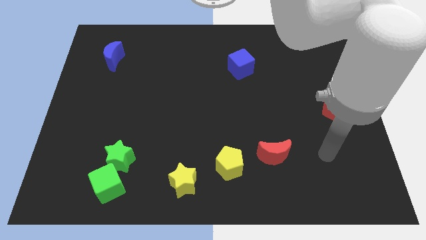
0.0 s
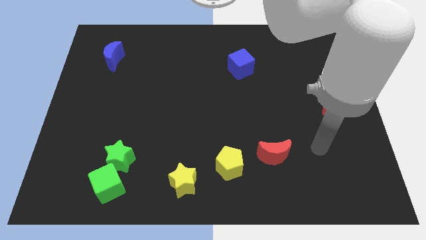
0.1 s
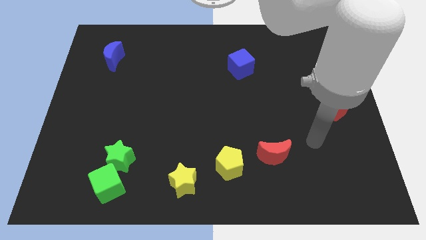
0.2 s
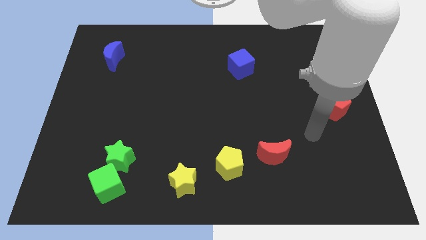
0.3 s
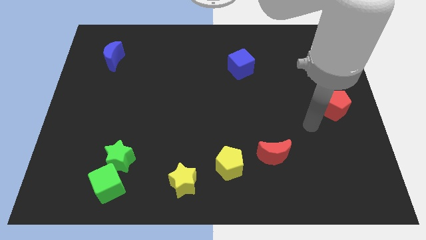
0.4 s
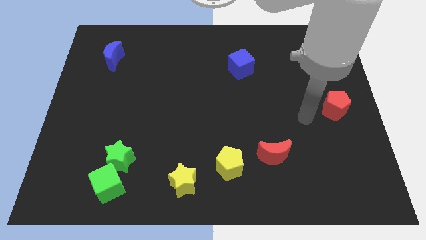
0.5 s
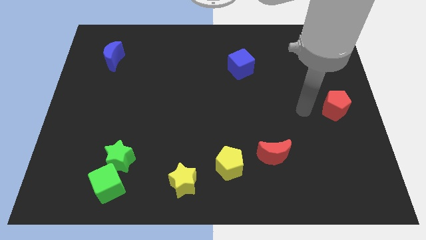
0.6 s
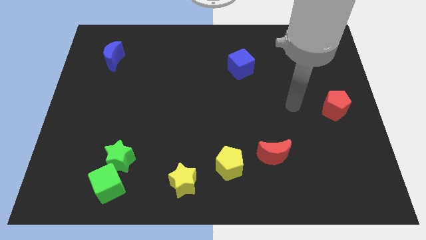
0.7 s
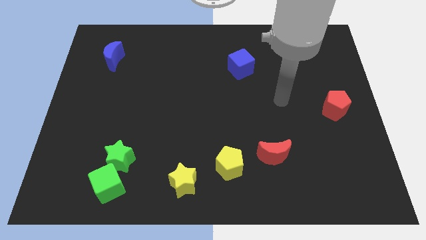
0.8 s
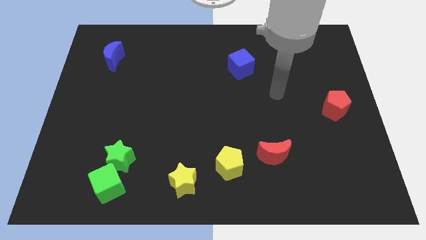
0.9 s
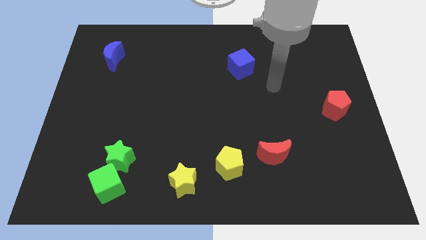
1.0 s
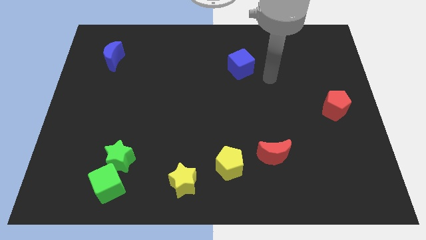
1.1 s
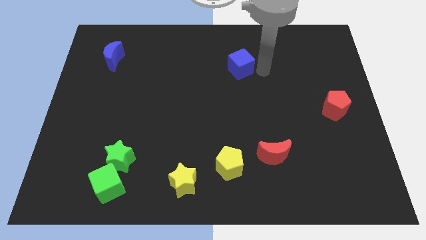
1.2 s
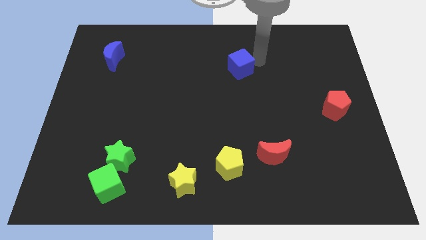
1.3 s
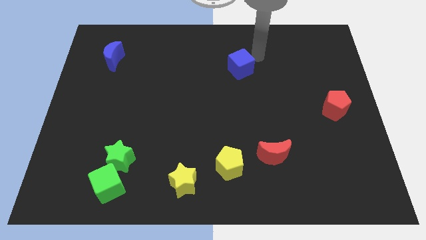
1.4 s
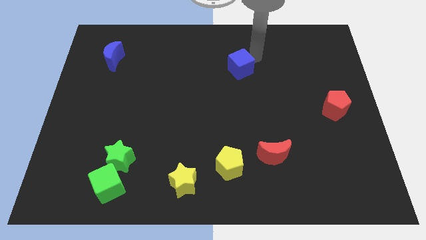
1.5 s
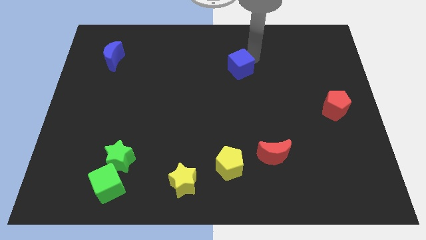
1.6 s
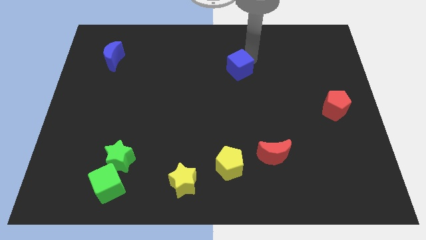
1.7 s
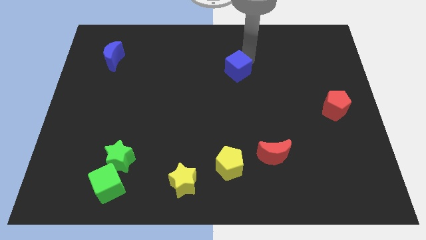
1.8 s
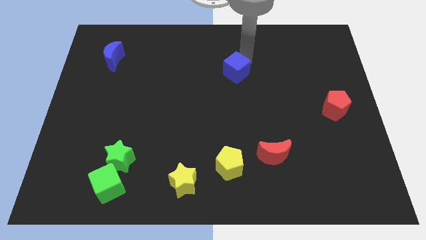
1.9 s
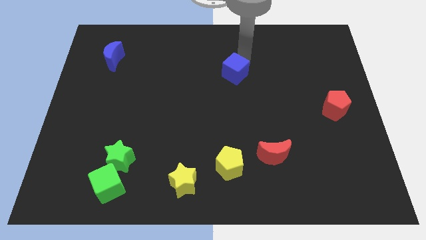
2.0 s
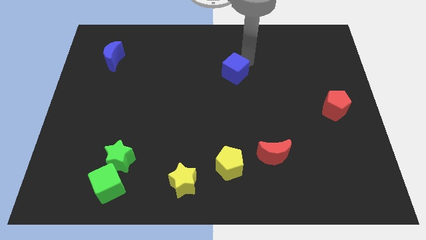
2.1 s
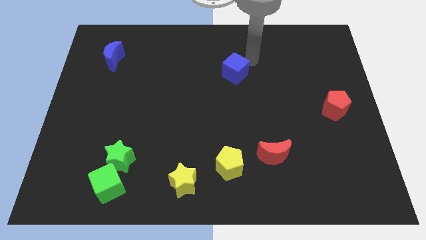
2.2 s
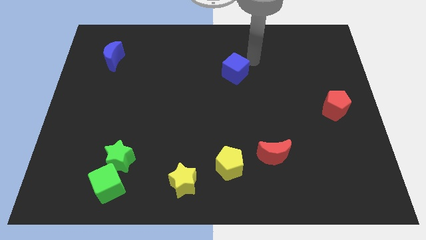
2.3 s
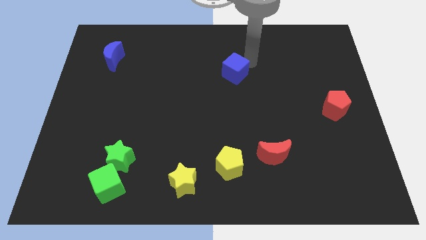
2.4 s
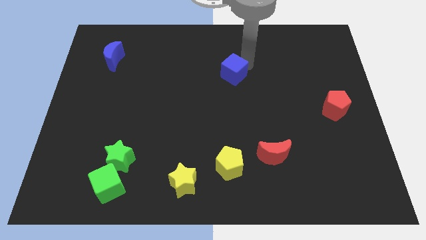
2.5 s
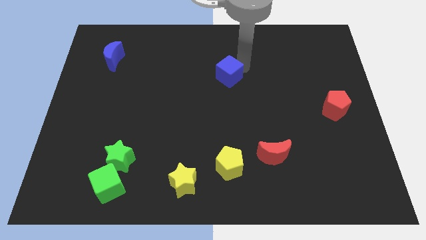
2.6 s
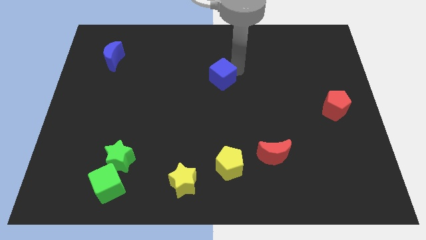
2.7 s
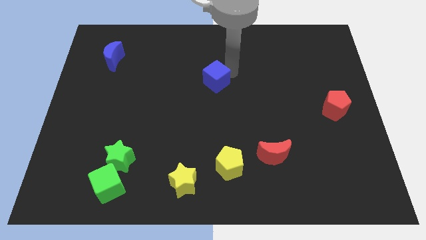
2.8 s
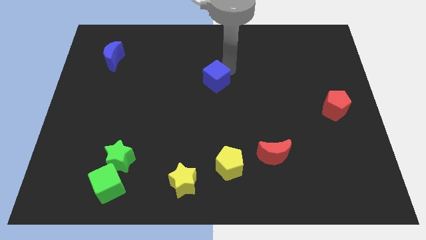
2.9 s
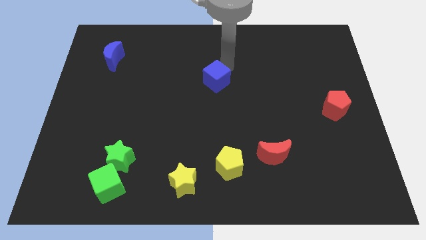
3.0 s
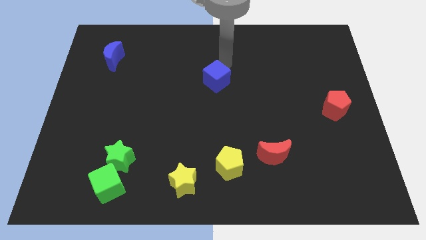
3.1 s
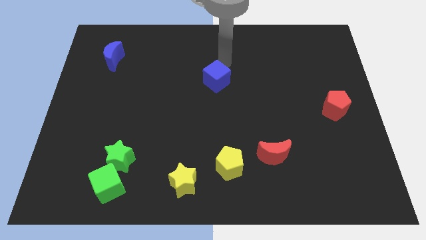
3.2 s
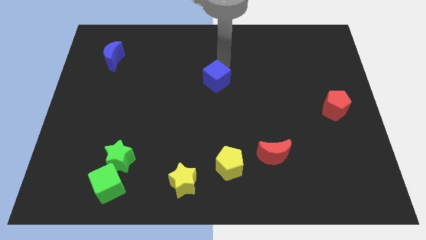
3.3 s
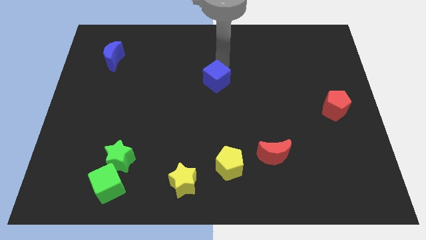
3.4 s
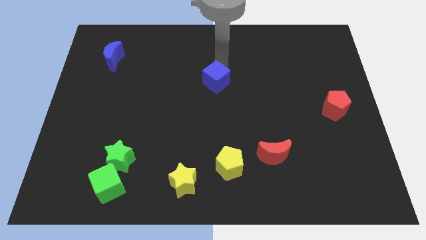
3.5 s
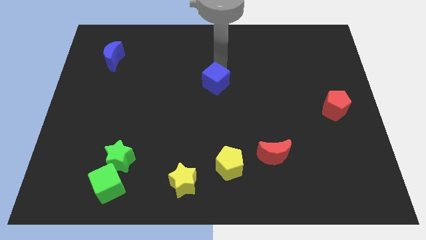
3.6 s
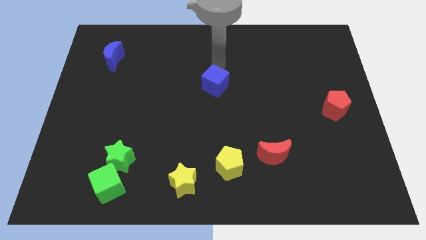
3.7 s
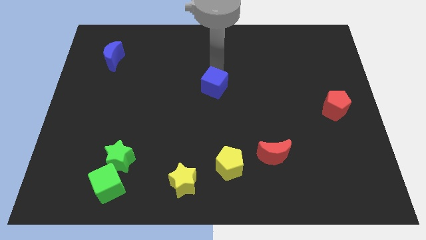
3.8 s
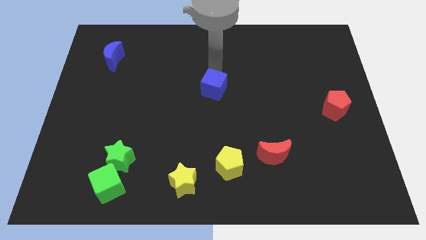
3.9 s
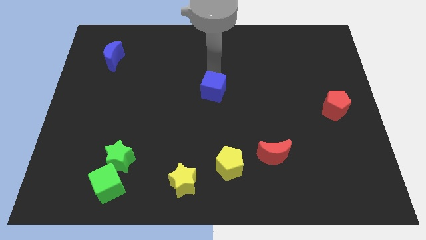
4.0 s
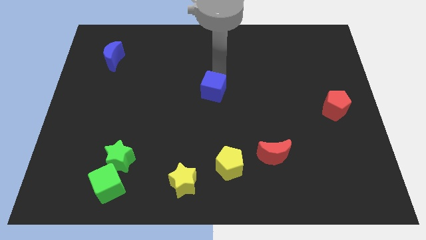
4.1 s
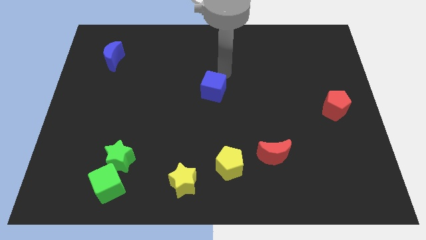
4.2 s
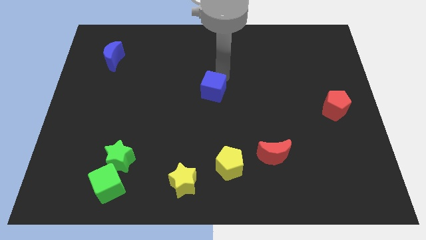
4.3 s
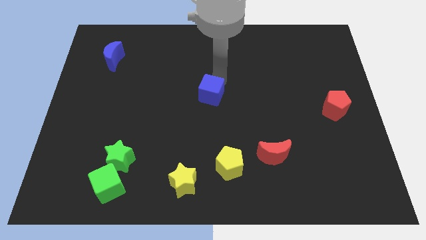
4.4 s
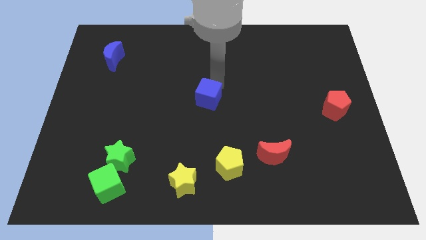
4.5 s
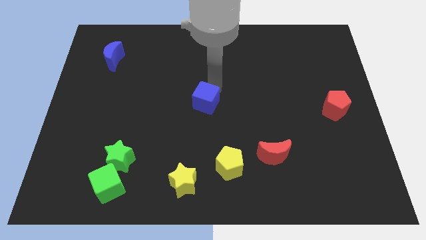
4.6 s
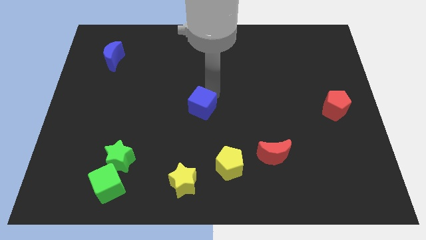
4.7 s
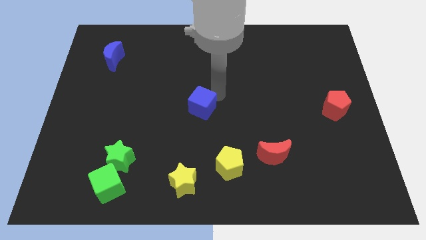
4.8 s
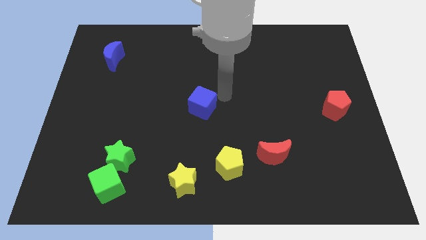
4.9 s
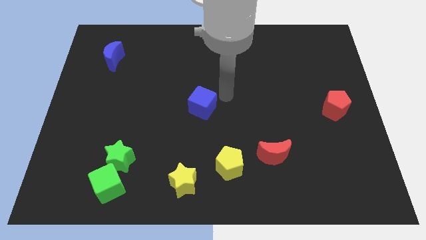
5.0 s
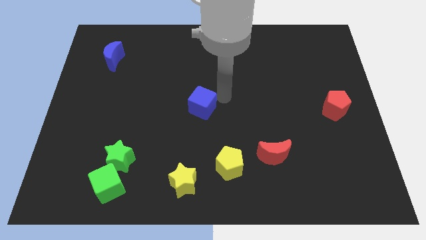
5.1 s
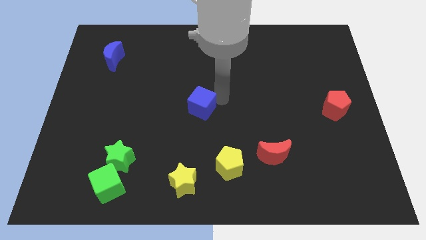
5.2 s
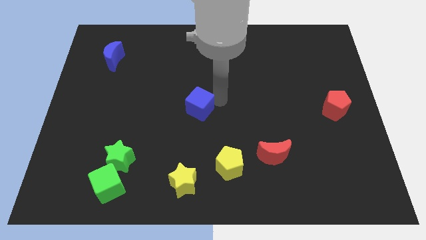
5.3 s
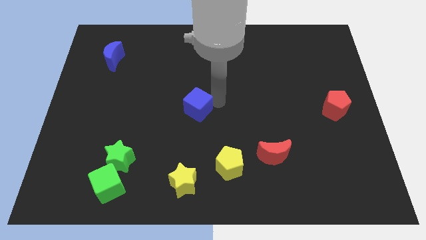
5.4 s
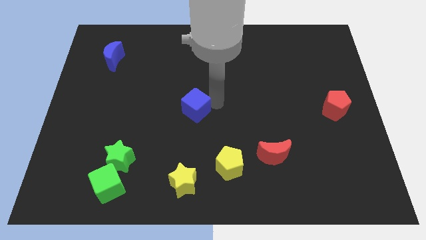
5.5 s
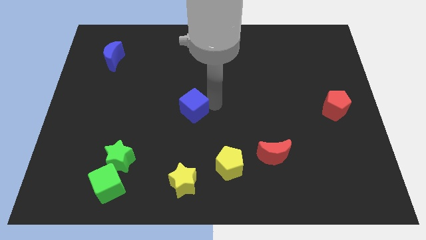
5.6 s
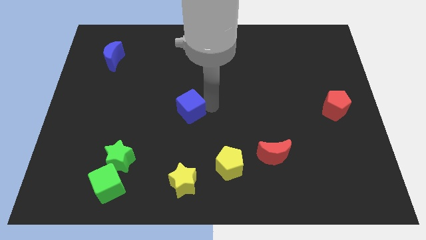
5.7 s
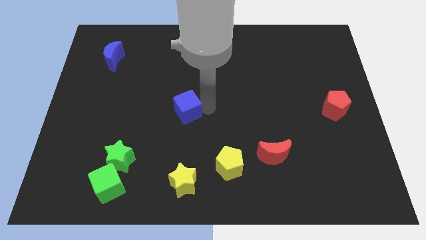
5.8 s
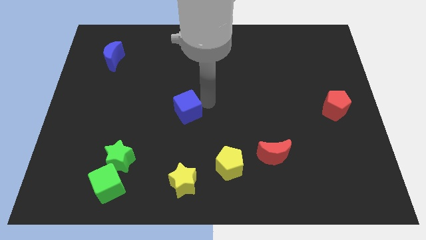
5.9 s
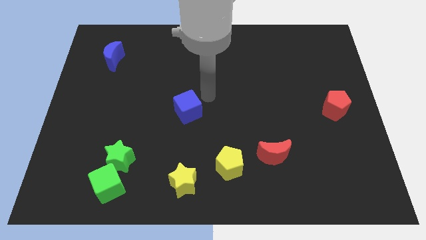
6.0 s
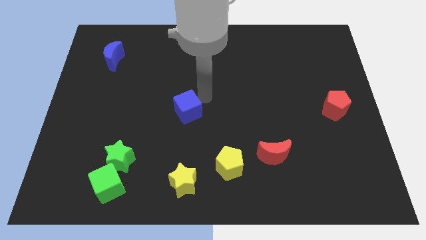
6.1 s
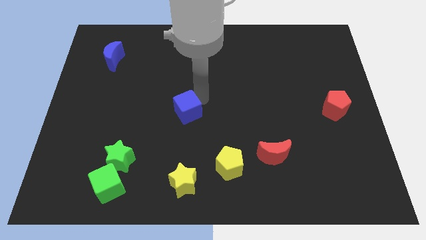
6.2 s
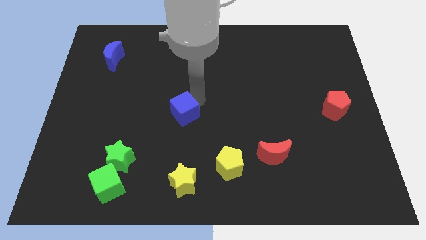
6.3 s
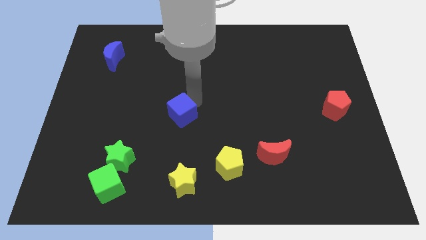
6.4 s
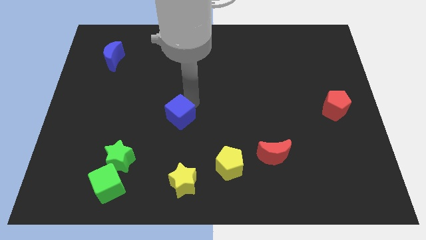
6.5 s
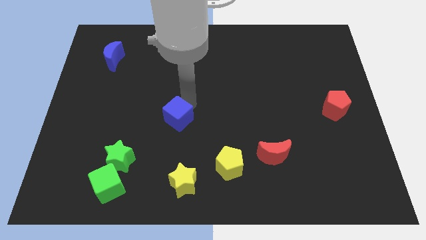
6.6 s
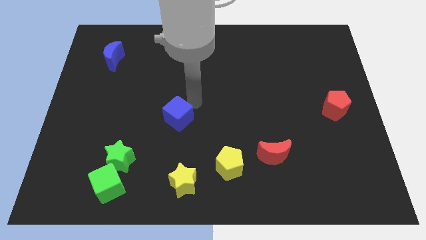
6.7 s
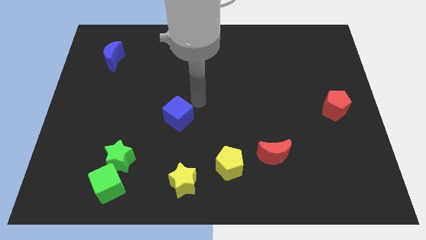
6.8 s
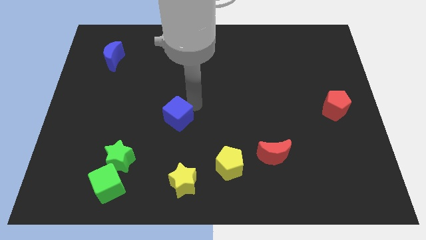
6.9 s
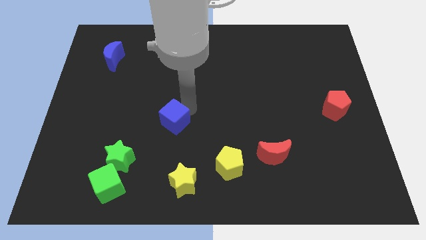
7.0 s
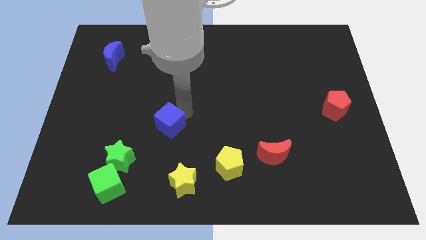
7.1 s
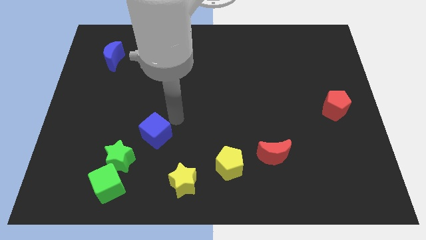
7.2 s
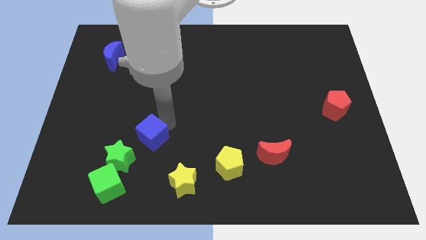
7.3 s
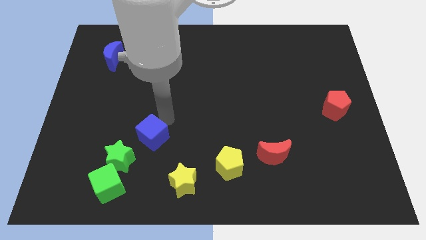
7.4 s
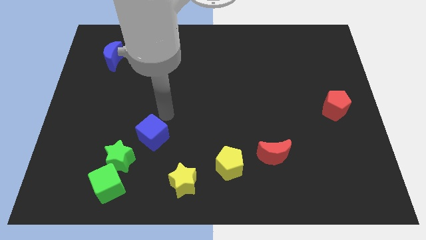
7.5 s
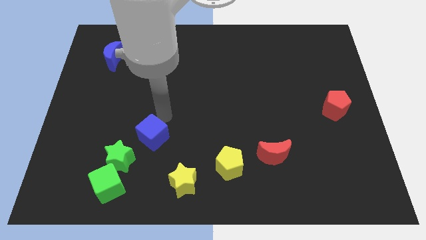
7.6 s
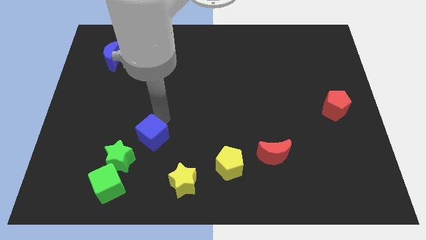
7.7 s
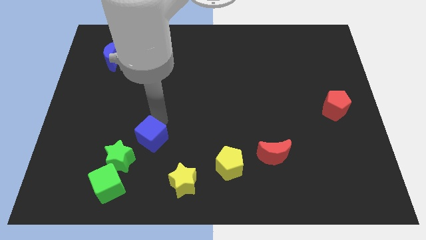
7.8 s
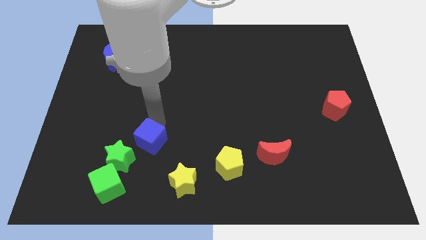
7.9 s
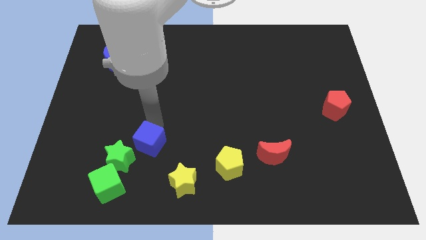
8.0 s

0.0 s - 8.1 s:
move the blue cube to the top right side of the green cube
